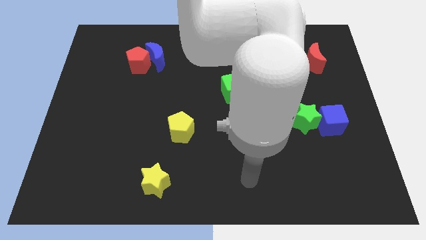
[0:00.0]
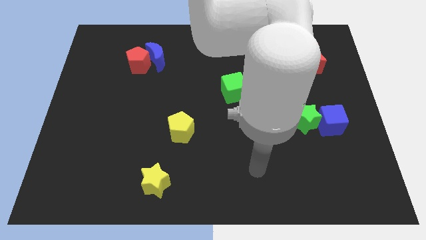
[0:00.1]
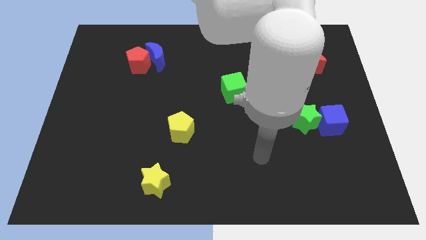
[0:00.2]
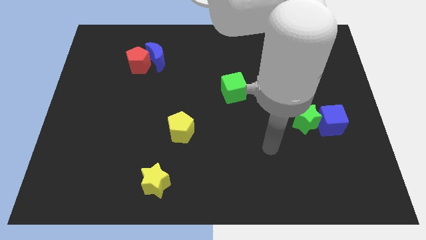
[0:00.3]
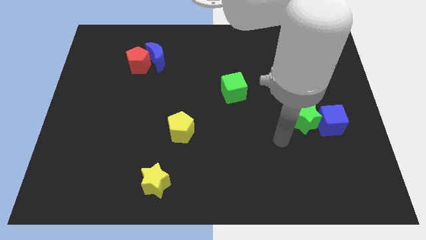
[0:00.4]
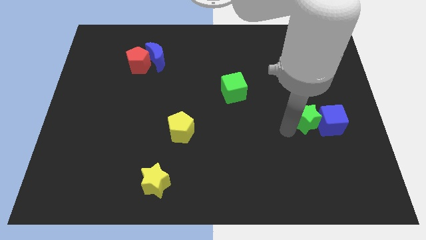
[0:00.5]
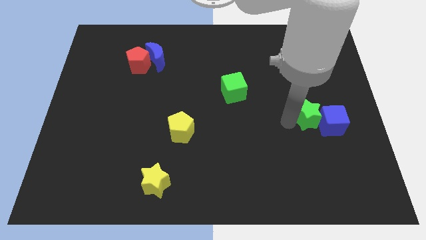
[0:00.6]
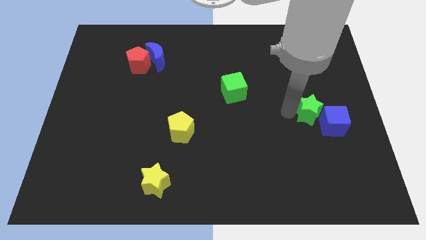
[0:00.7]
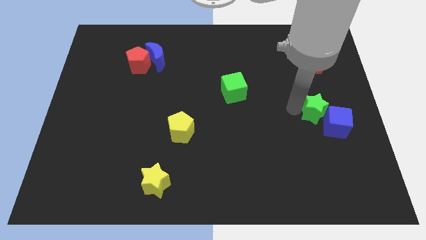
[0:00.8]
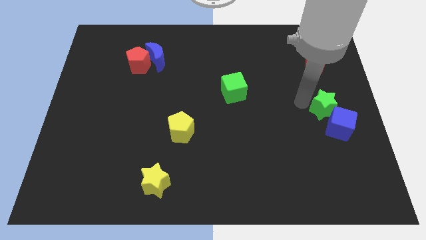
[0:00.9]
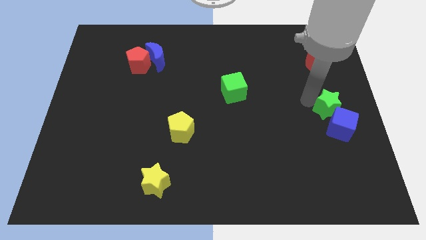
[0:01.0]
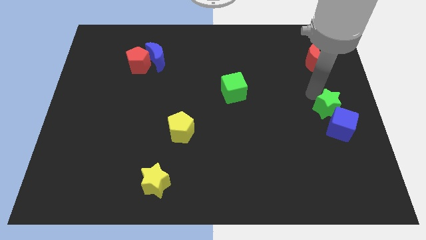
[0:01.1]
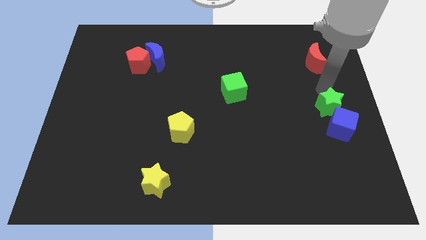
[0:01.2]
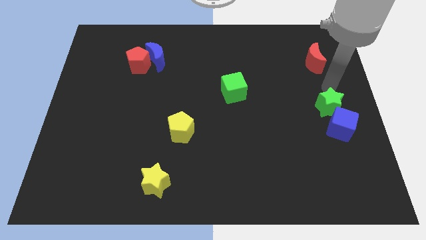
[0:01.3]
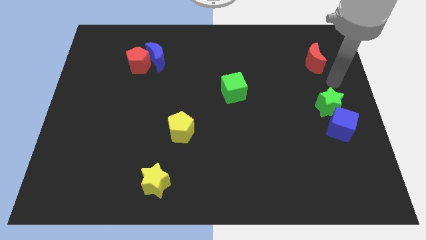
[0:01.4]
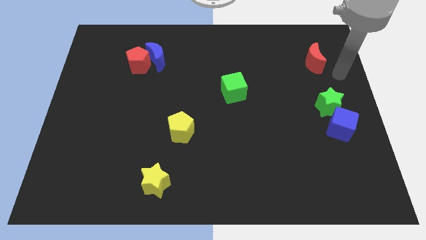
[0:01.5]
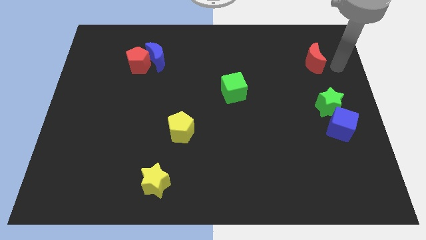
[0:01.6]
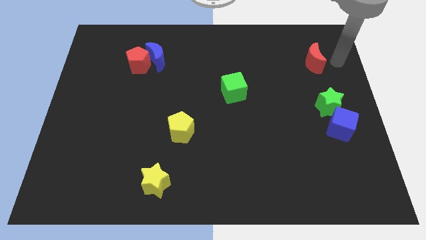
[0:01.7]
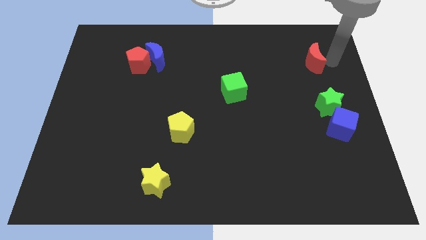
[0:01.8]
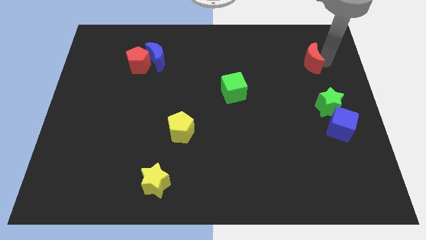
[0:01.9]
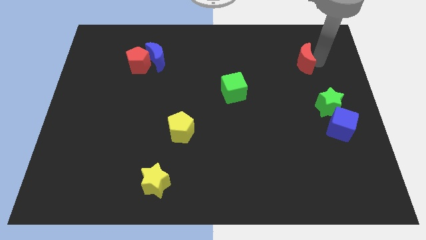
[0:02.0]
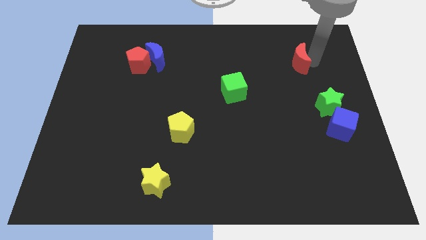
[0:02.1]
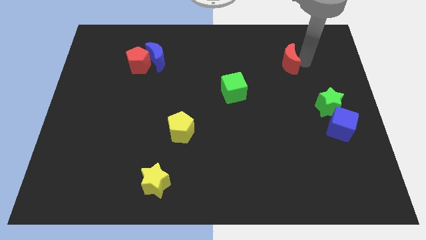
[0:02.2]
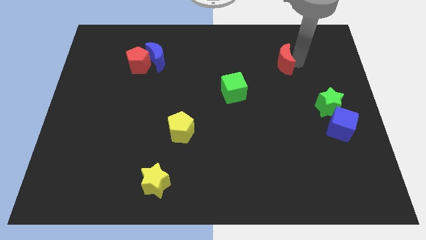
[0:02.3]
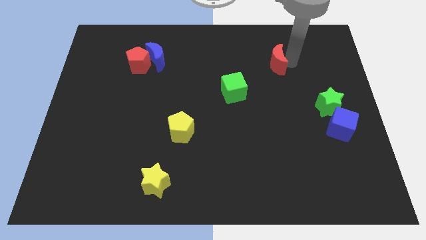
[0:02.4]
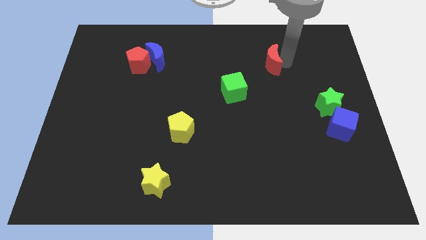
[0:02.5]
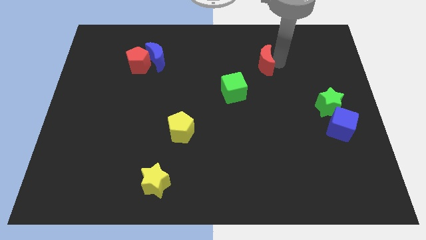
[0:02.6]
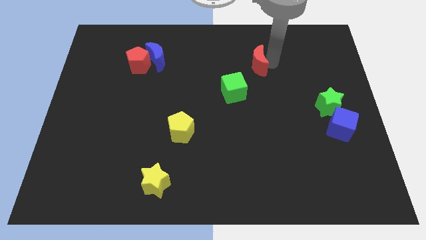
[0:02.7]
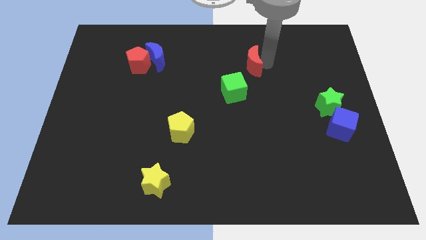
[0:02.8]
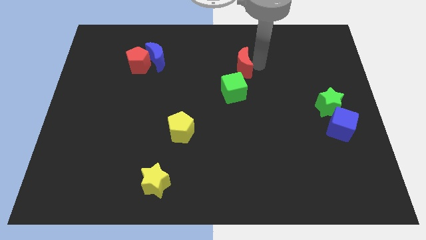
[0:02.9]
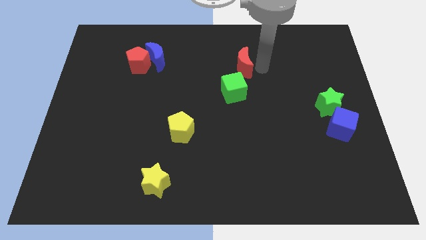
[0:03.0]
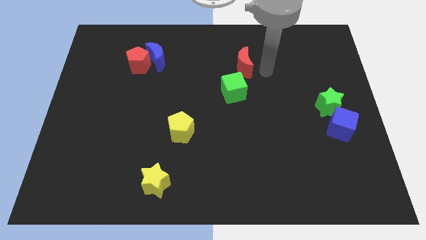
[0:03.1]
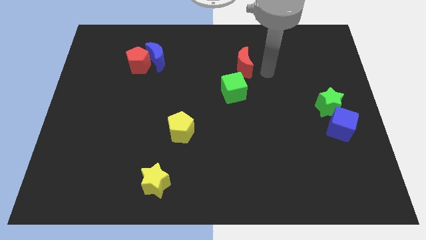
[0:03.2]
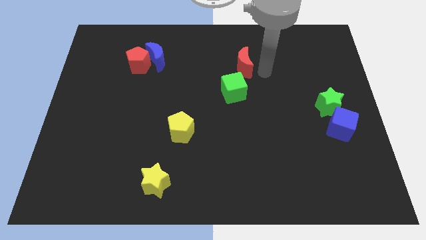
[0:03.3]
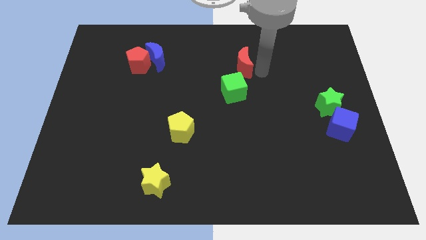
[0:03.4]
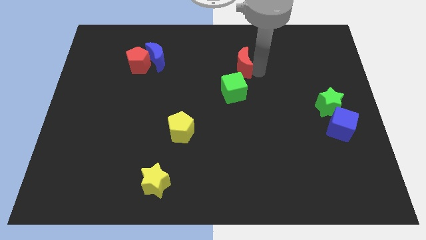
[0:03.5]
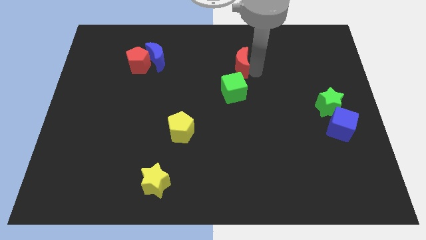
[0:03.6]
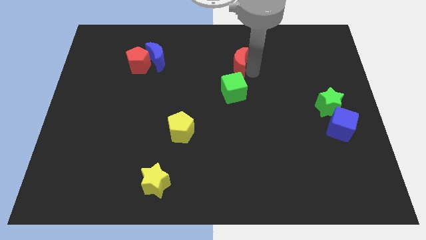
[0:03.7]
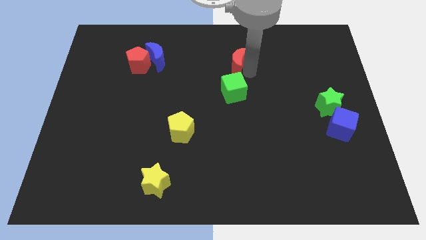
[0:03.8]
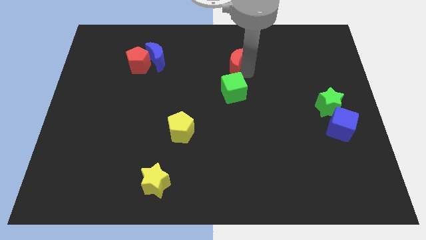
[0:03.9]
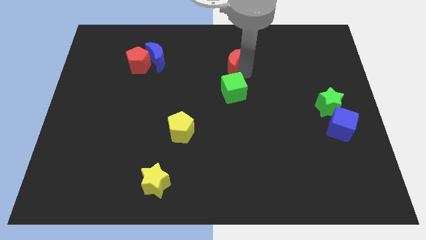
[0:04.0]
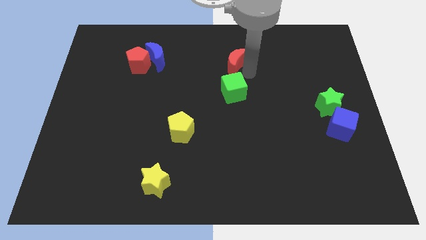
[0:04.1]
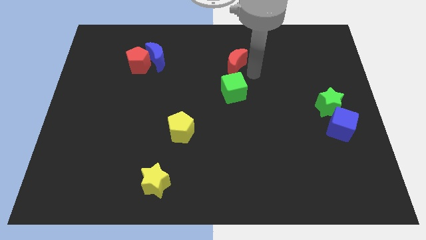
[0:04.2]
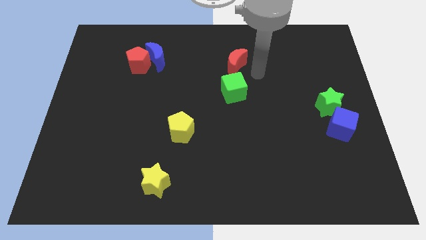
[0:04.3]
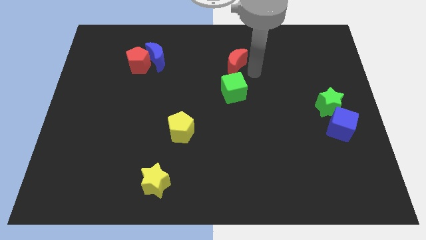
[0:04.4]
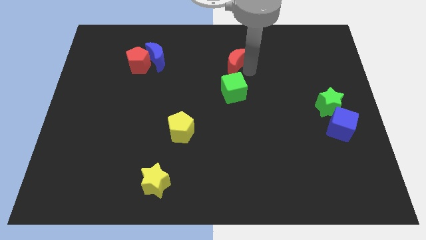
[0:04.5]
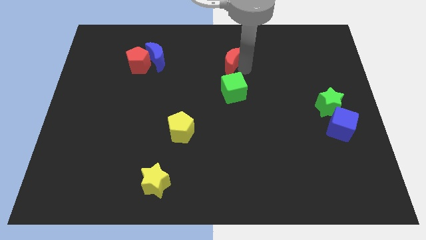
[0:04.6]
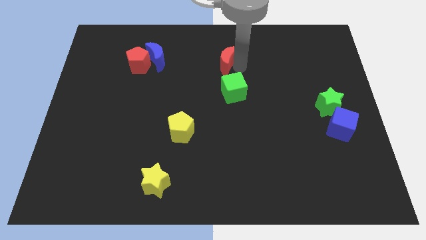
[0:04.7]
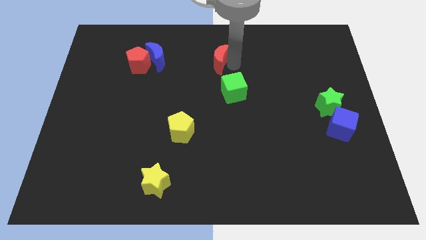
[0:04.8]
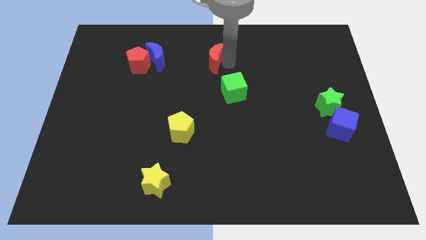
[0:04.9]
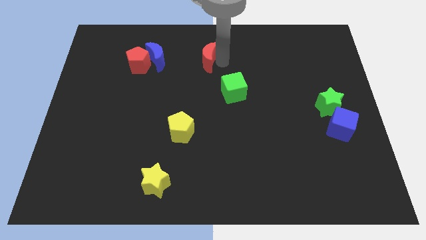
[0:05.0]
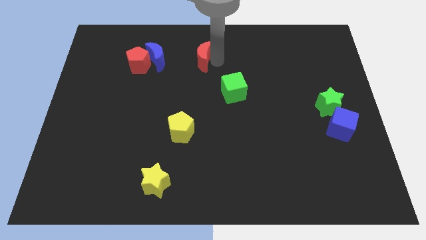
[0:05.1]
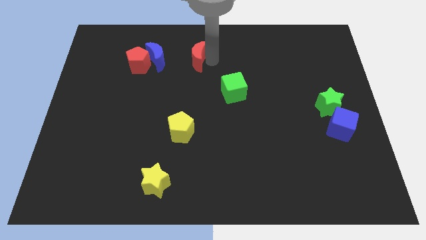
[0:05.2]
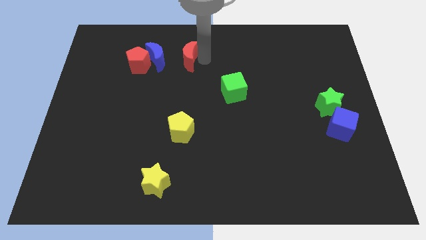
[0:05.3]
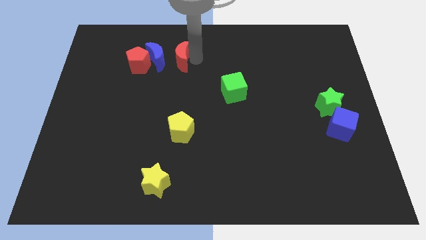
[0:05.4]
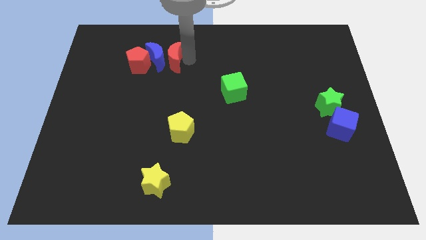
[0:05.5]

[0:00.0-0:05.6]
slide the red moon to the blue moon

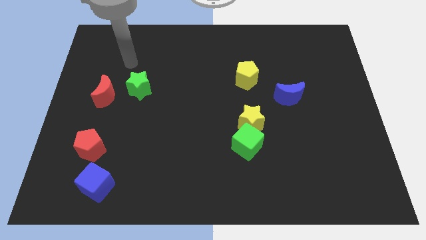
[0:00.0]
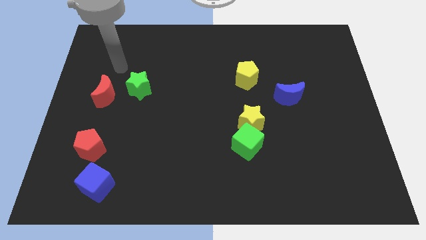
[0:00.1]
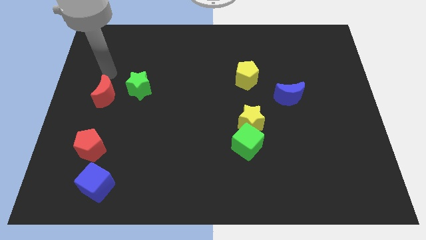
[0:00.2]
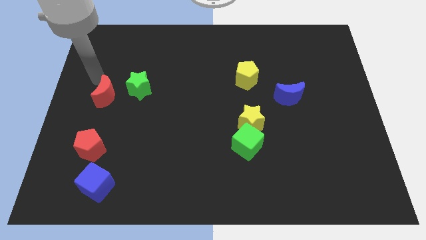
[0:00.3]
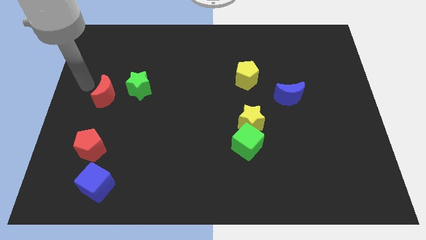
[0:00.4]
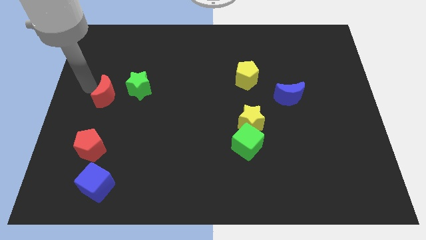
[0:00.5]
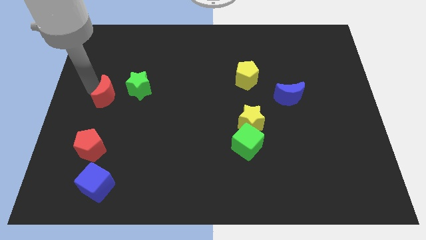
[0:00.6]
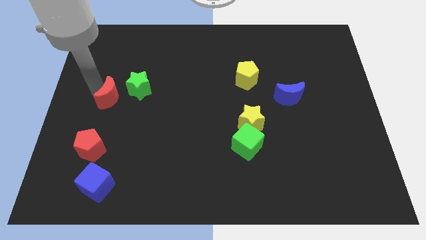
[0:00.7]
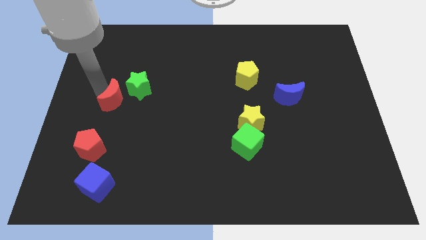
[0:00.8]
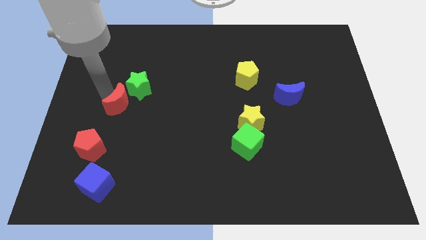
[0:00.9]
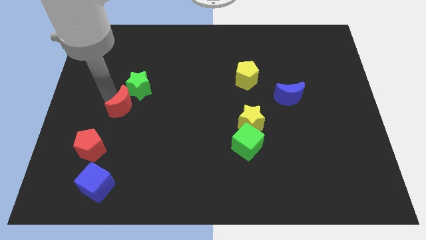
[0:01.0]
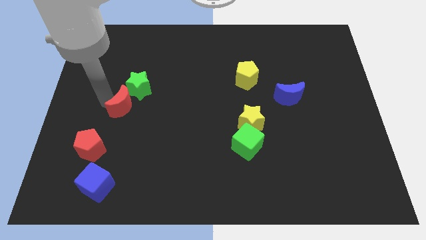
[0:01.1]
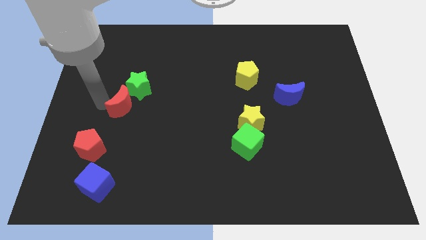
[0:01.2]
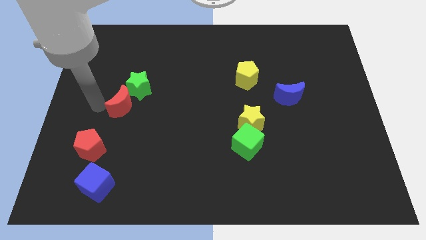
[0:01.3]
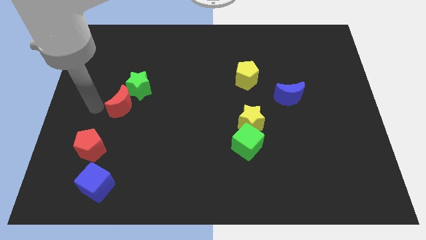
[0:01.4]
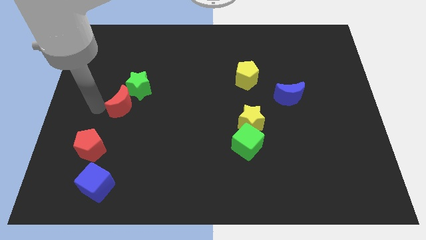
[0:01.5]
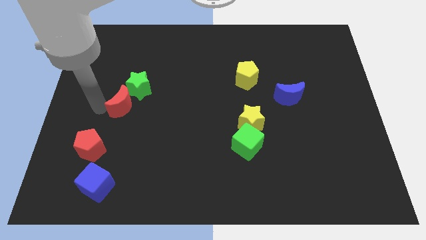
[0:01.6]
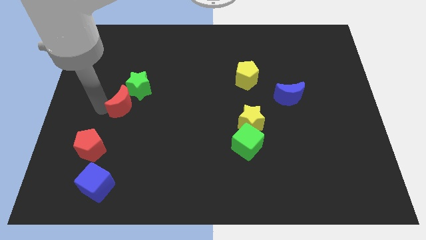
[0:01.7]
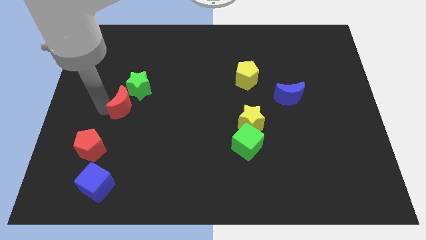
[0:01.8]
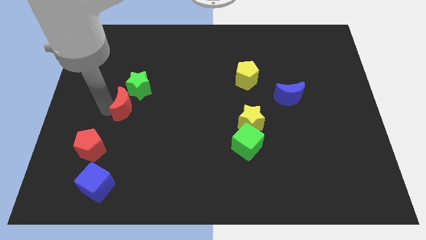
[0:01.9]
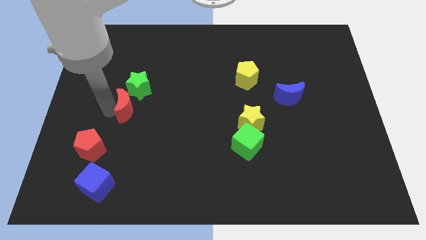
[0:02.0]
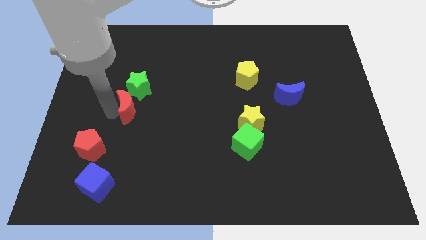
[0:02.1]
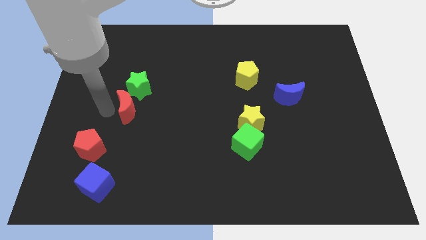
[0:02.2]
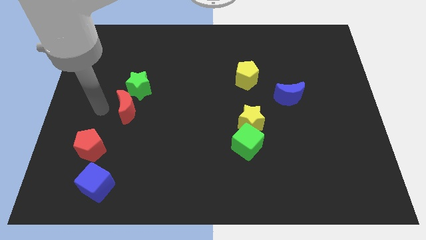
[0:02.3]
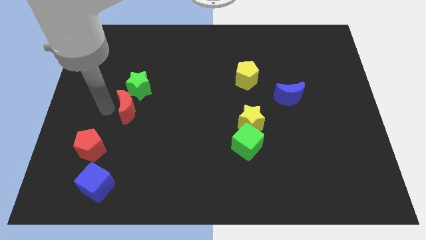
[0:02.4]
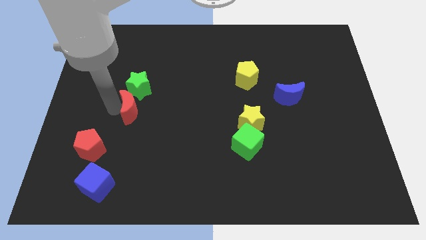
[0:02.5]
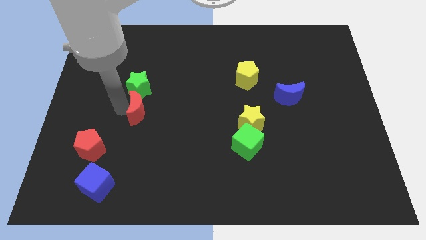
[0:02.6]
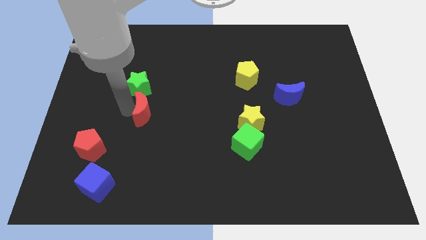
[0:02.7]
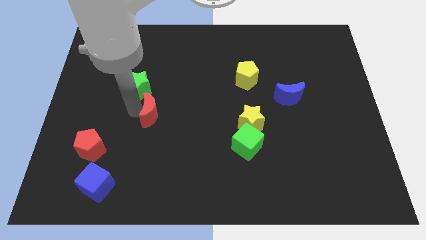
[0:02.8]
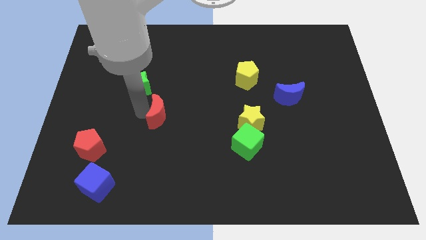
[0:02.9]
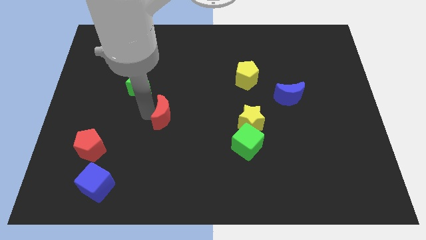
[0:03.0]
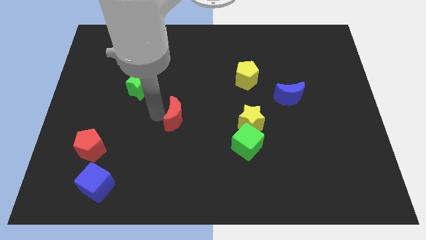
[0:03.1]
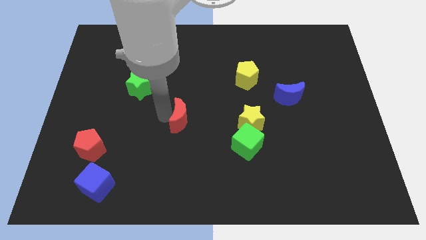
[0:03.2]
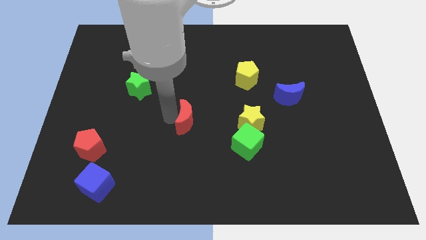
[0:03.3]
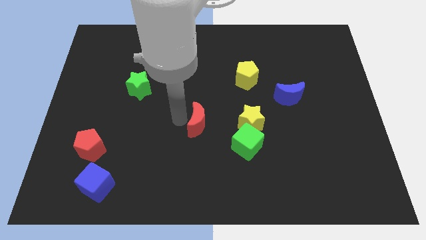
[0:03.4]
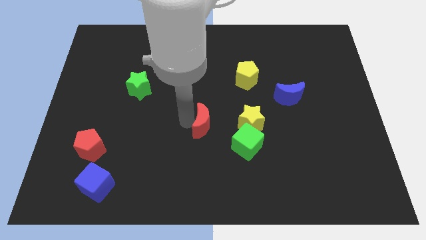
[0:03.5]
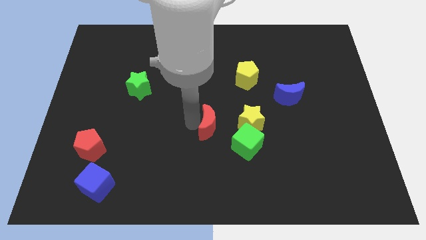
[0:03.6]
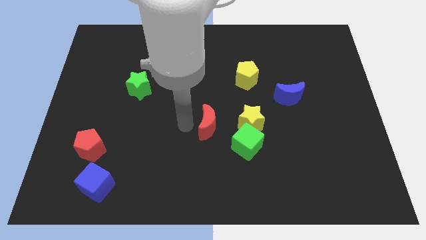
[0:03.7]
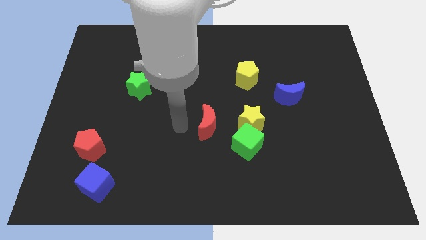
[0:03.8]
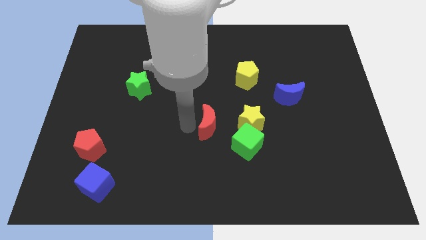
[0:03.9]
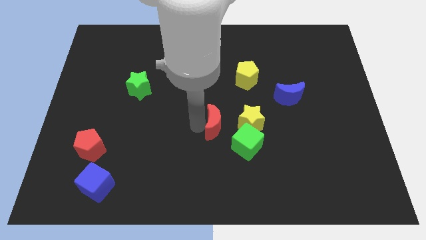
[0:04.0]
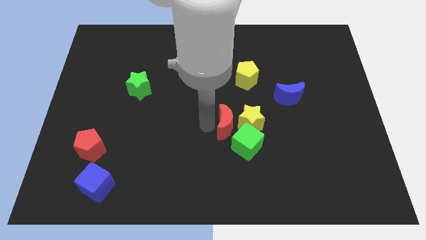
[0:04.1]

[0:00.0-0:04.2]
move the red moon close to the yellow star
